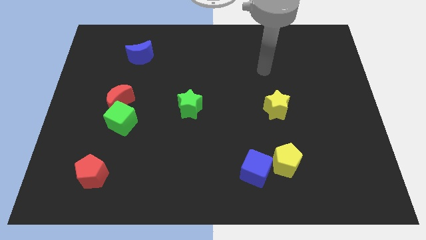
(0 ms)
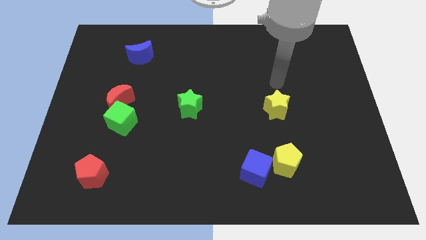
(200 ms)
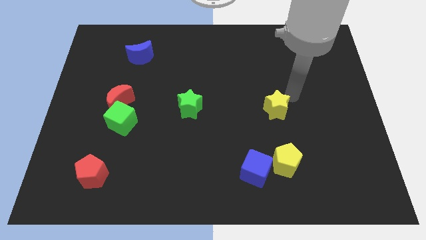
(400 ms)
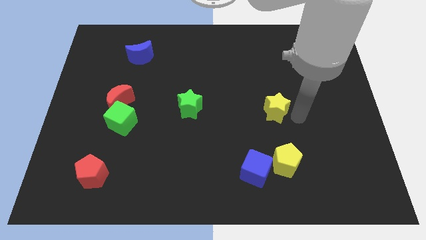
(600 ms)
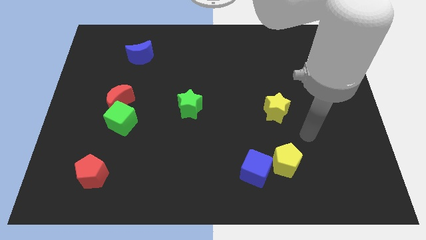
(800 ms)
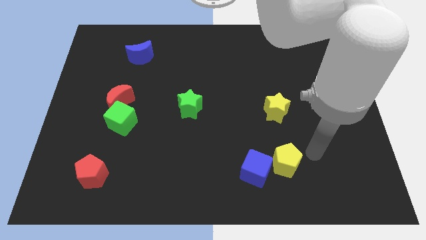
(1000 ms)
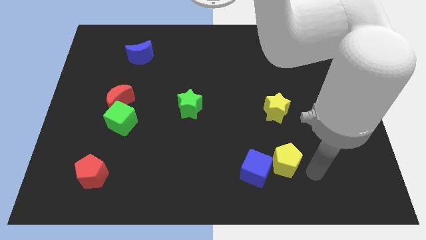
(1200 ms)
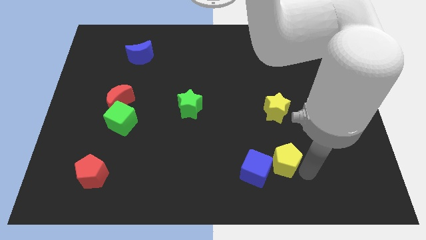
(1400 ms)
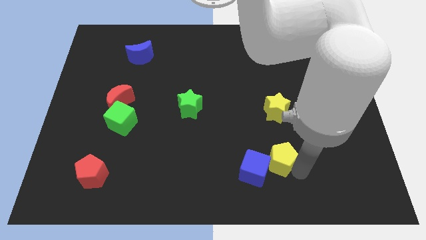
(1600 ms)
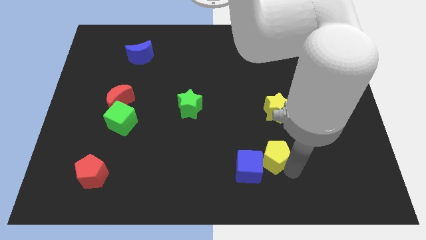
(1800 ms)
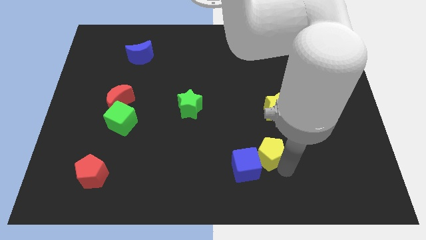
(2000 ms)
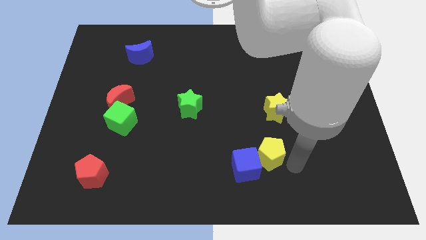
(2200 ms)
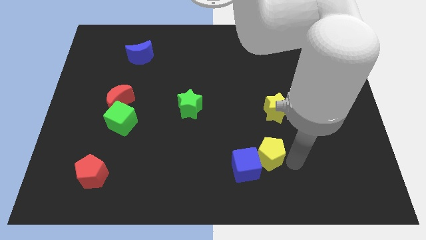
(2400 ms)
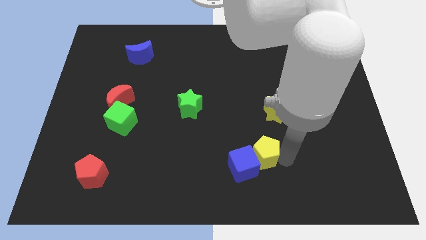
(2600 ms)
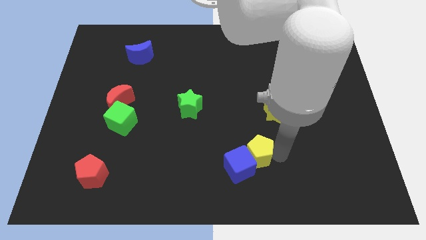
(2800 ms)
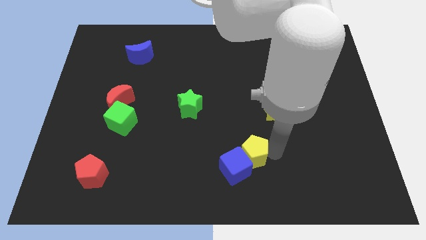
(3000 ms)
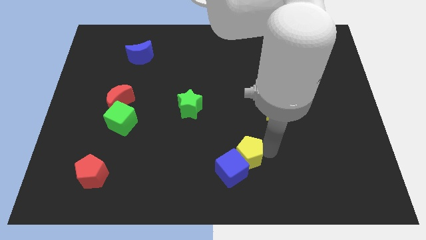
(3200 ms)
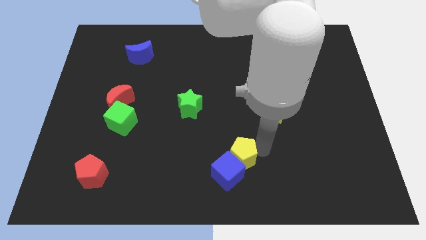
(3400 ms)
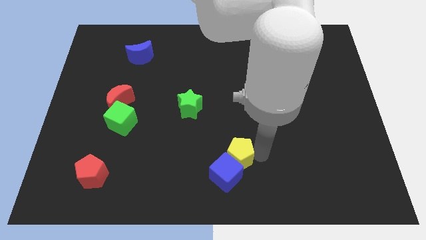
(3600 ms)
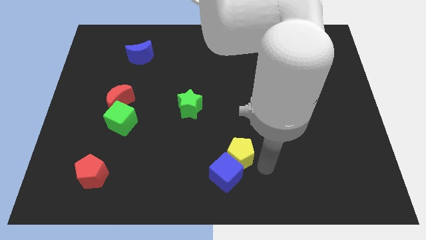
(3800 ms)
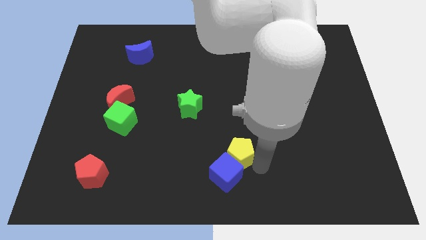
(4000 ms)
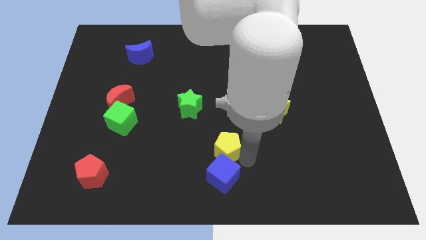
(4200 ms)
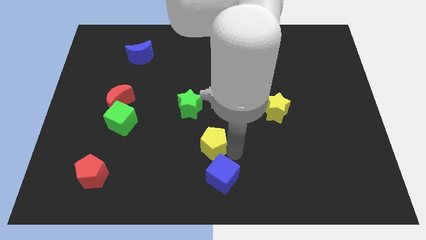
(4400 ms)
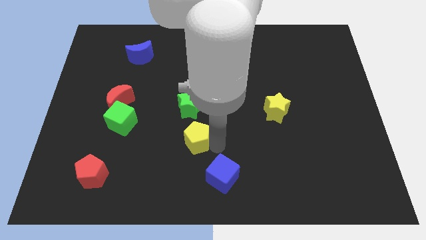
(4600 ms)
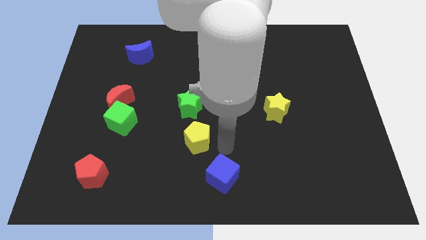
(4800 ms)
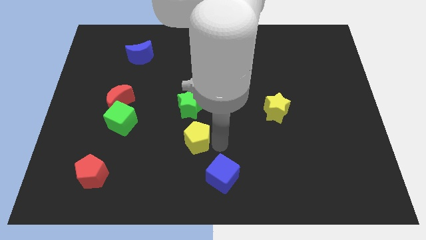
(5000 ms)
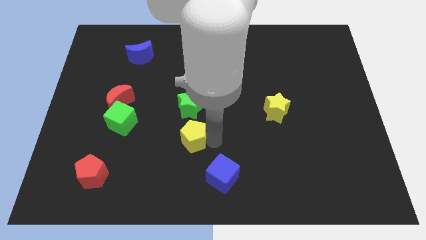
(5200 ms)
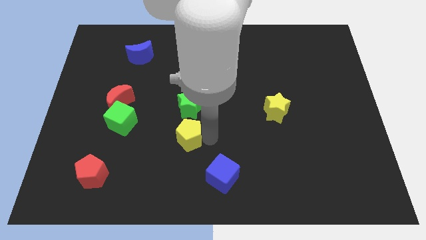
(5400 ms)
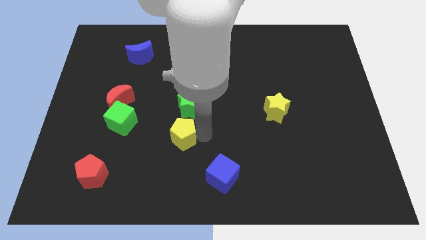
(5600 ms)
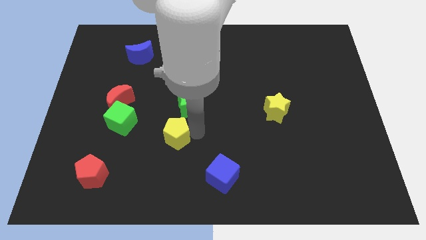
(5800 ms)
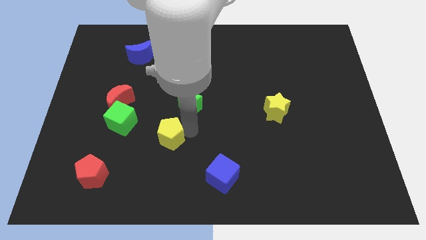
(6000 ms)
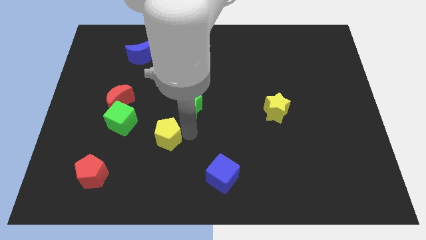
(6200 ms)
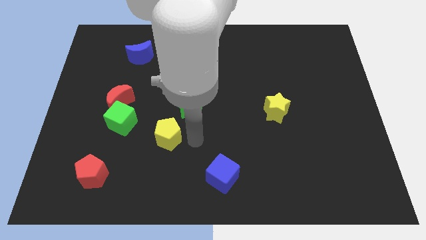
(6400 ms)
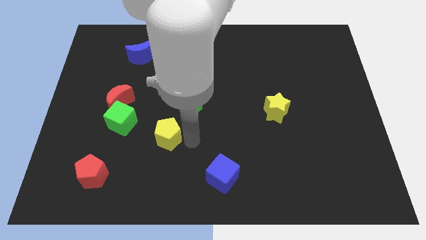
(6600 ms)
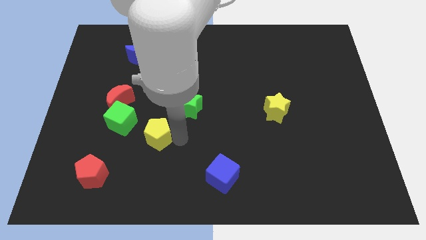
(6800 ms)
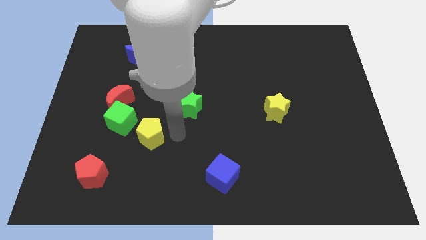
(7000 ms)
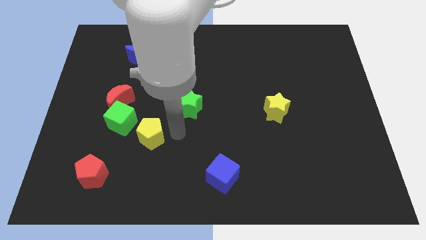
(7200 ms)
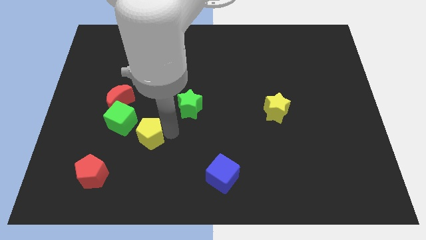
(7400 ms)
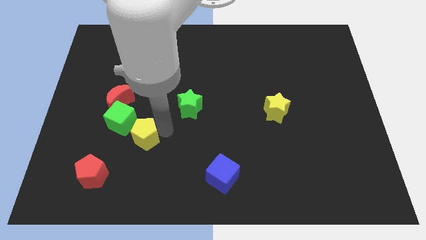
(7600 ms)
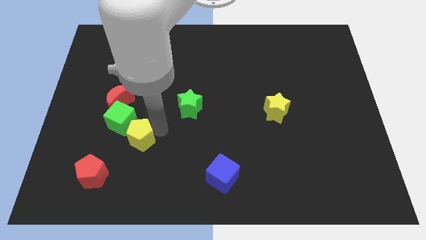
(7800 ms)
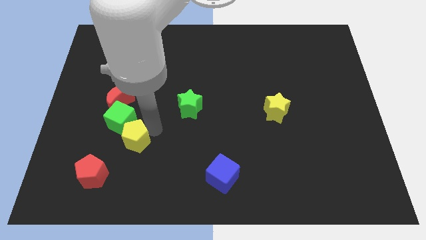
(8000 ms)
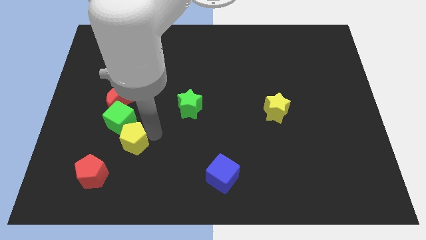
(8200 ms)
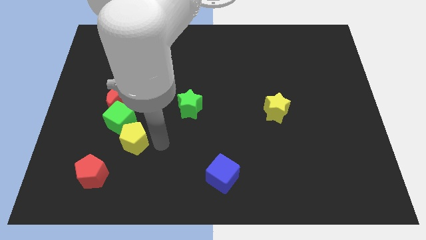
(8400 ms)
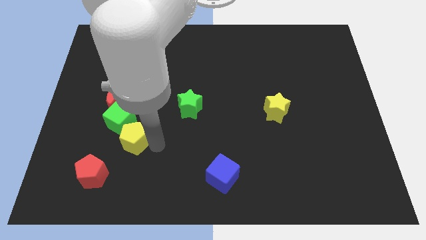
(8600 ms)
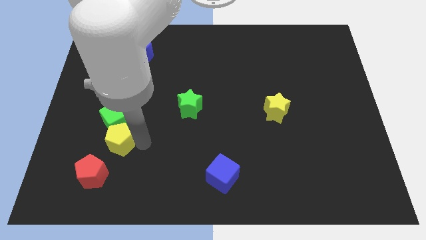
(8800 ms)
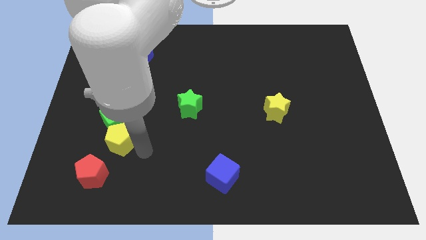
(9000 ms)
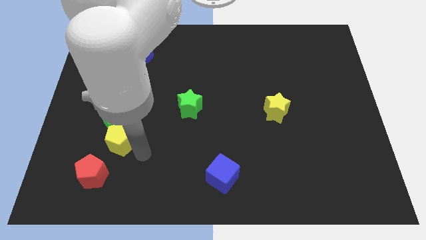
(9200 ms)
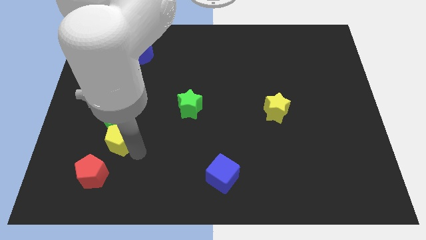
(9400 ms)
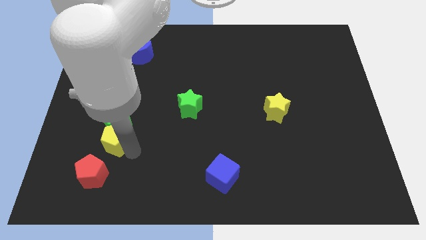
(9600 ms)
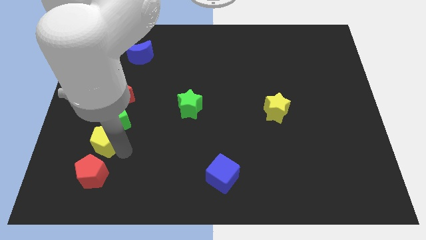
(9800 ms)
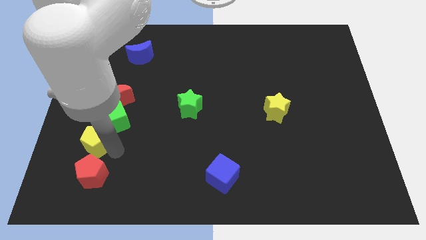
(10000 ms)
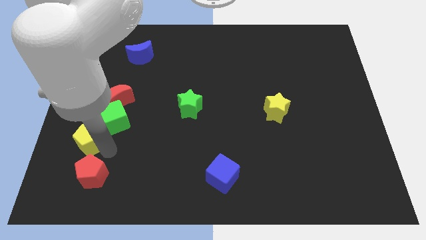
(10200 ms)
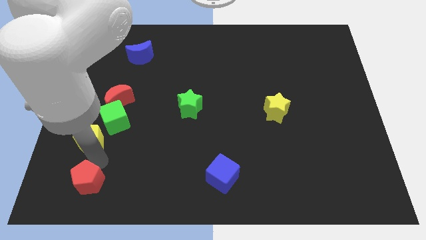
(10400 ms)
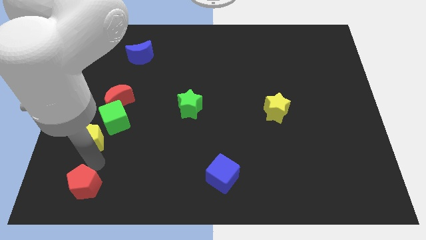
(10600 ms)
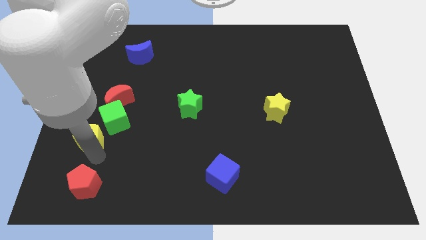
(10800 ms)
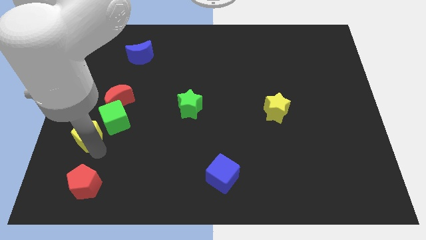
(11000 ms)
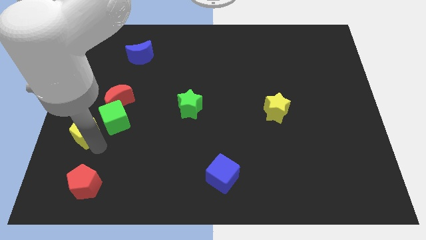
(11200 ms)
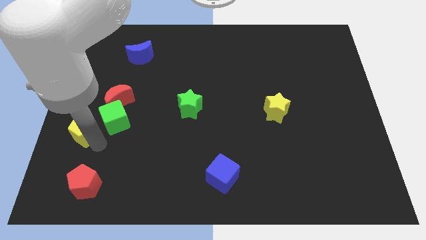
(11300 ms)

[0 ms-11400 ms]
slide the yellow pentagon to the left side of the board

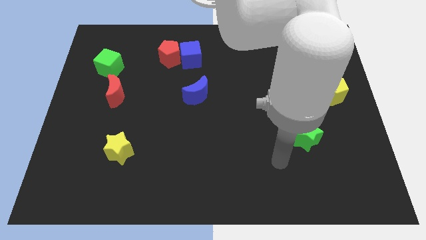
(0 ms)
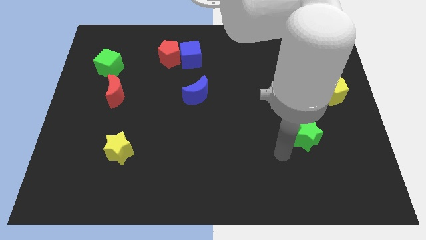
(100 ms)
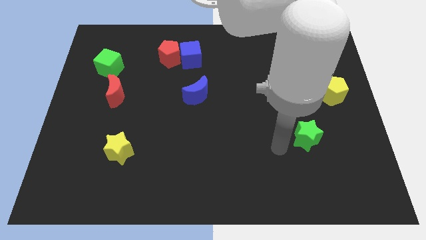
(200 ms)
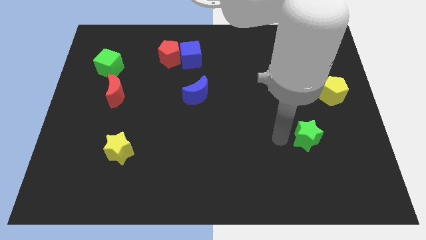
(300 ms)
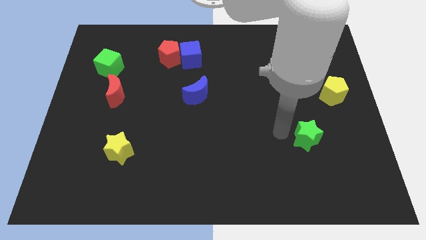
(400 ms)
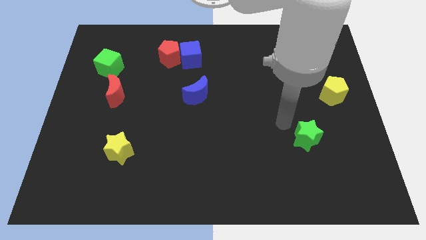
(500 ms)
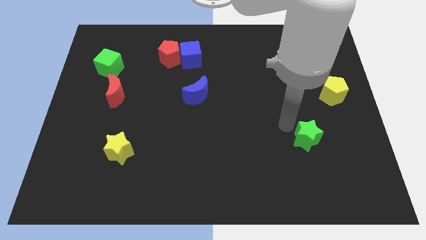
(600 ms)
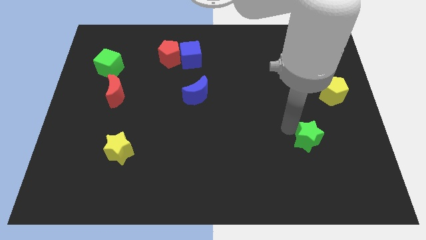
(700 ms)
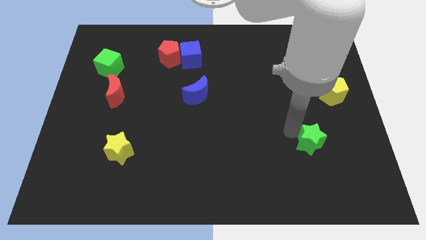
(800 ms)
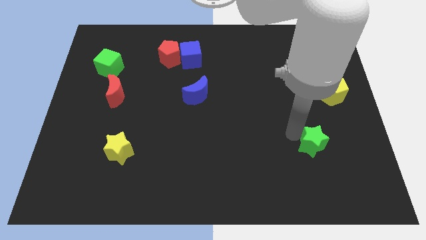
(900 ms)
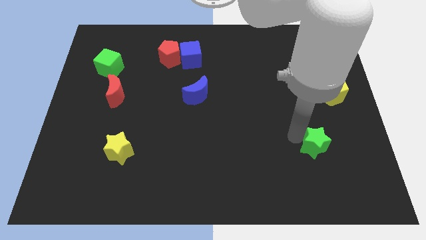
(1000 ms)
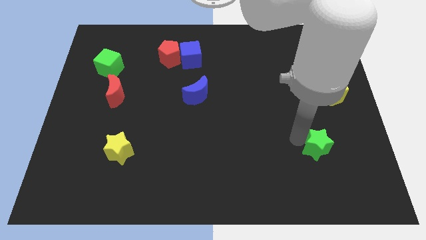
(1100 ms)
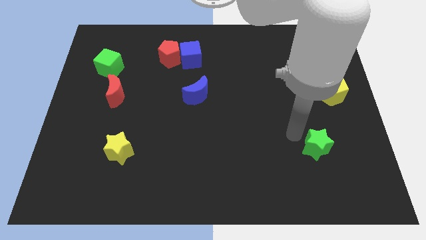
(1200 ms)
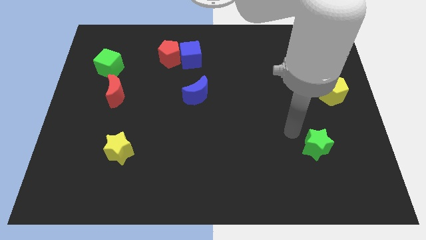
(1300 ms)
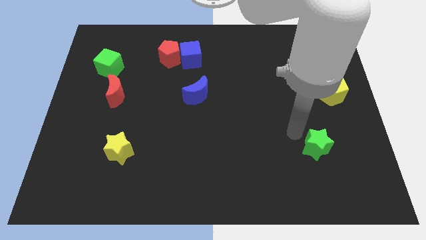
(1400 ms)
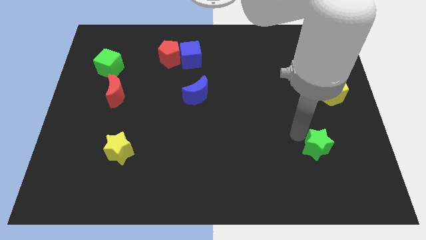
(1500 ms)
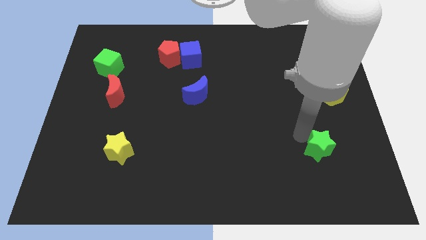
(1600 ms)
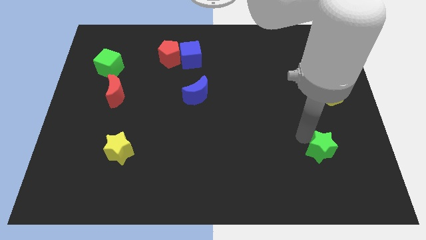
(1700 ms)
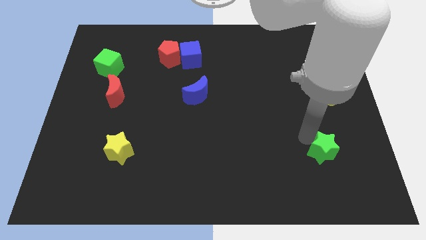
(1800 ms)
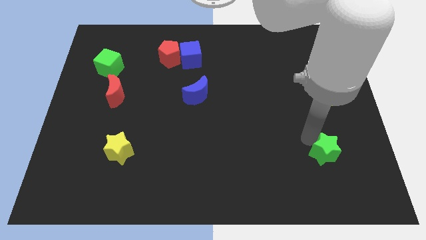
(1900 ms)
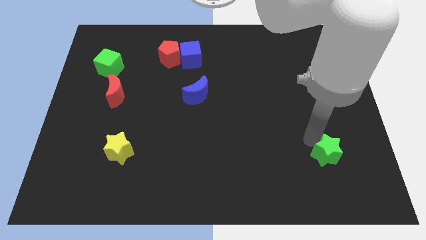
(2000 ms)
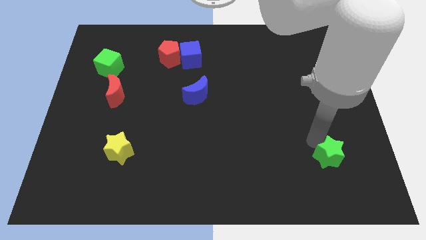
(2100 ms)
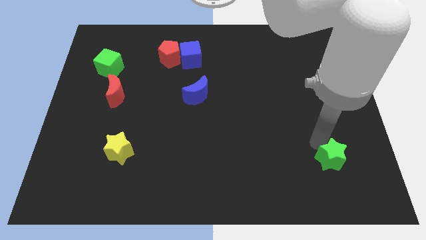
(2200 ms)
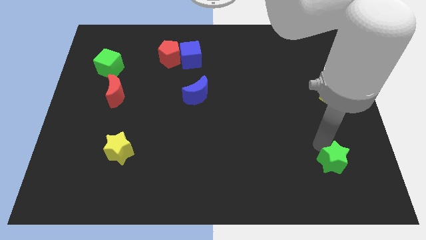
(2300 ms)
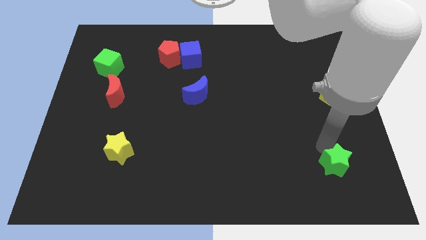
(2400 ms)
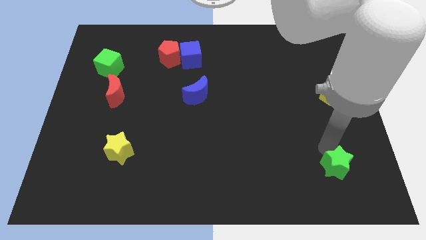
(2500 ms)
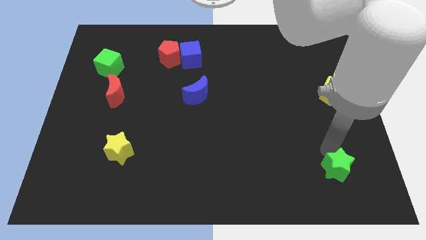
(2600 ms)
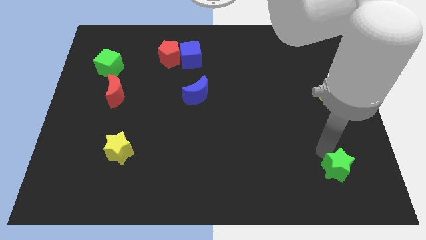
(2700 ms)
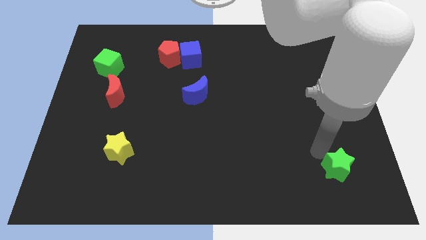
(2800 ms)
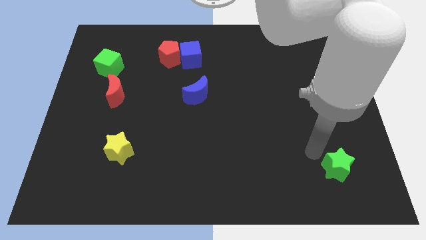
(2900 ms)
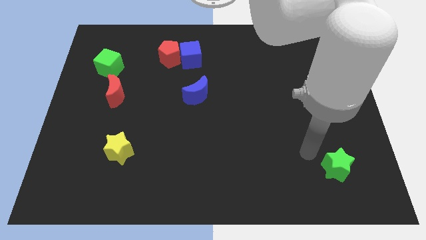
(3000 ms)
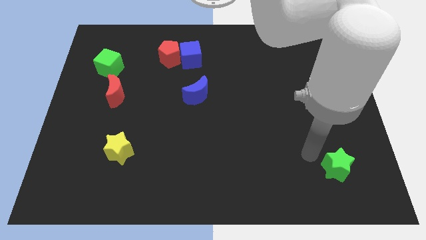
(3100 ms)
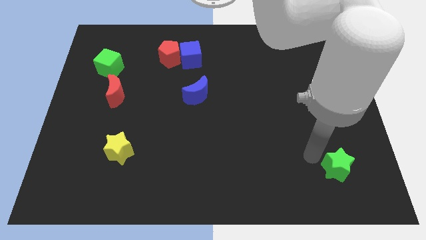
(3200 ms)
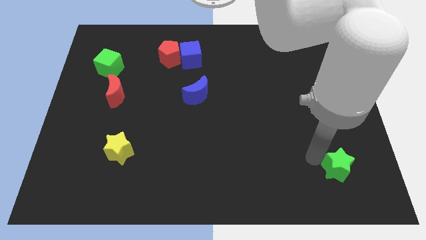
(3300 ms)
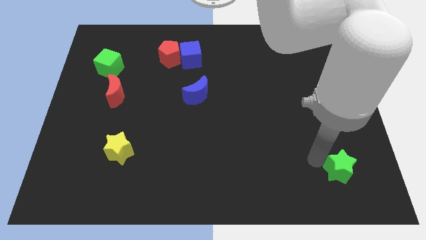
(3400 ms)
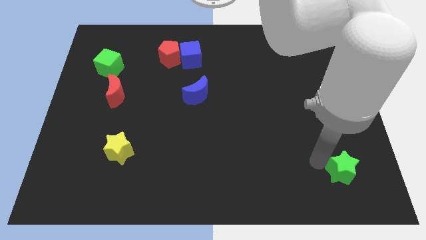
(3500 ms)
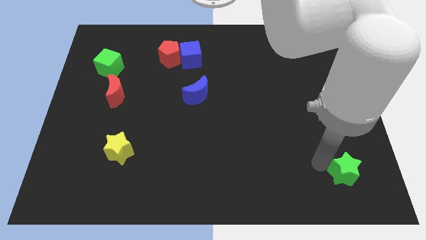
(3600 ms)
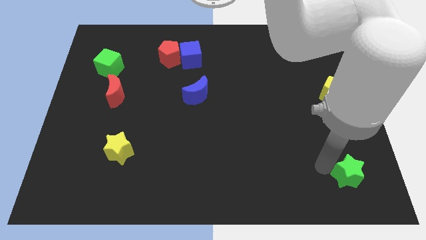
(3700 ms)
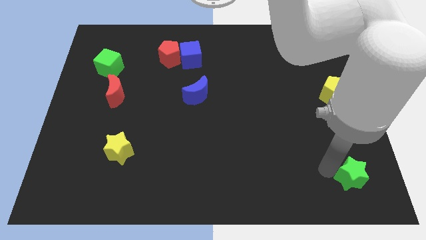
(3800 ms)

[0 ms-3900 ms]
move the green star to the bottom right
